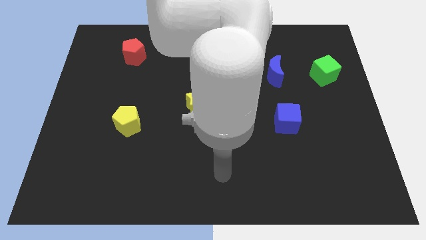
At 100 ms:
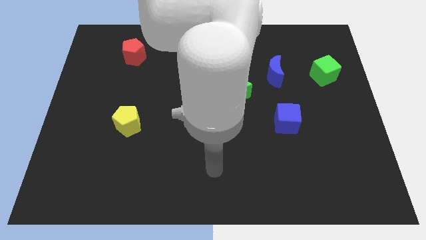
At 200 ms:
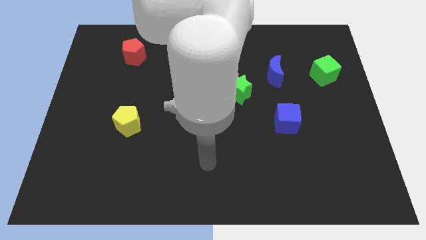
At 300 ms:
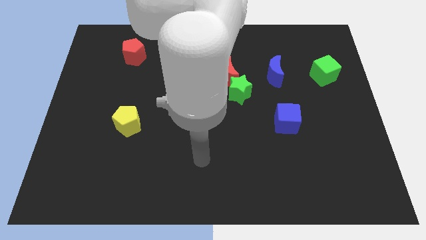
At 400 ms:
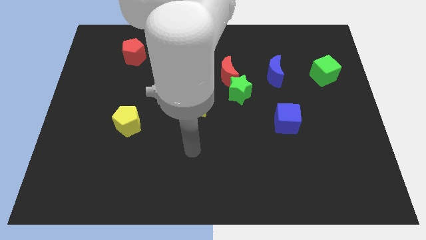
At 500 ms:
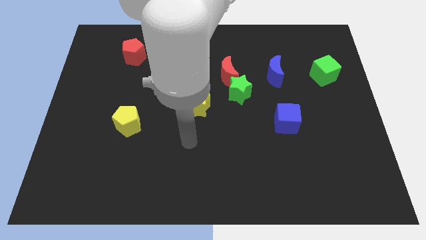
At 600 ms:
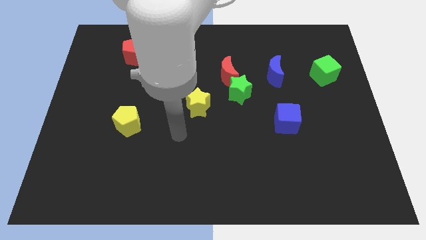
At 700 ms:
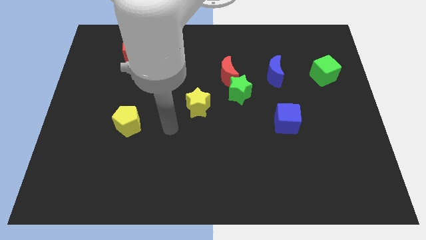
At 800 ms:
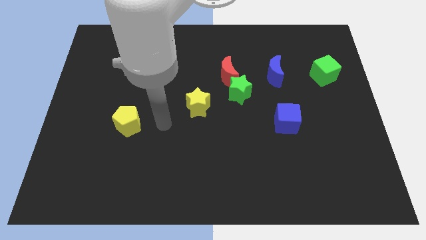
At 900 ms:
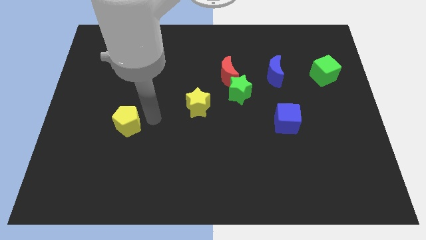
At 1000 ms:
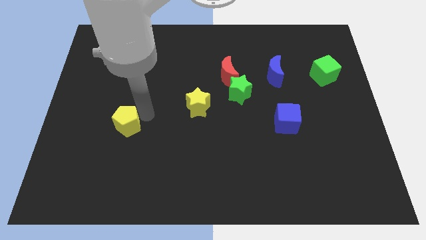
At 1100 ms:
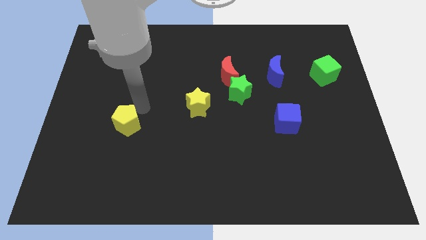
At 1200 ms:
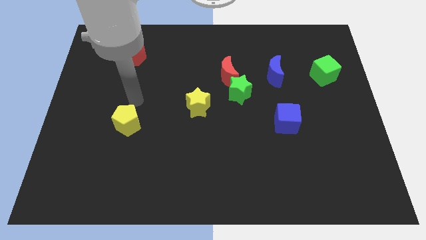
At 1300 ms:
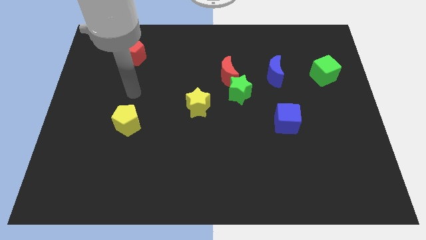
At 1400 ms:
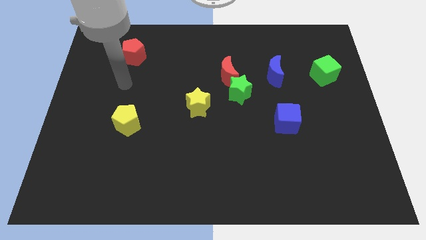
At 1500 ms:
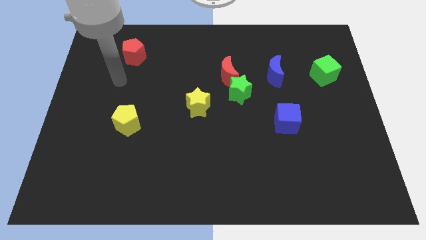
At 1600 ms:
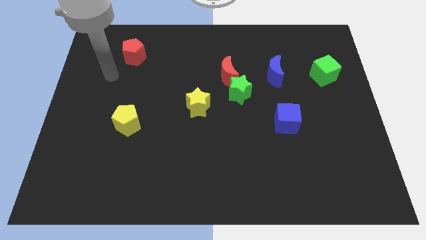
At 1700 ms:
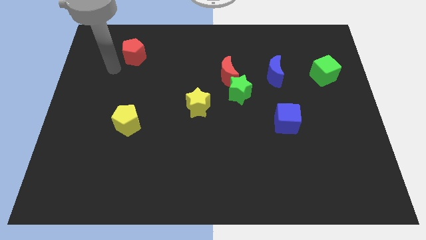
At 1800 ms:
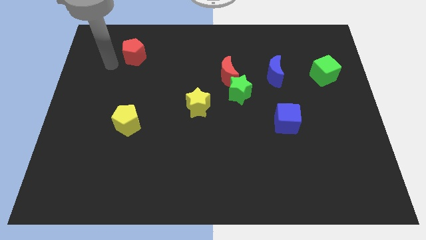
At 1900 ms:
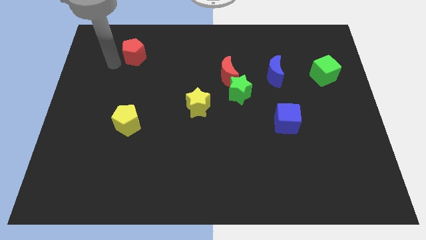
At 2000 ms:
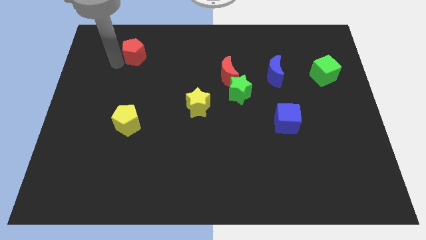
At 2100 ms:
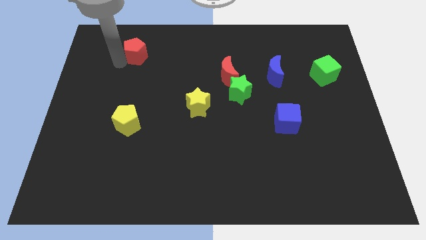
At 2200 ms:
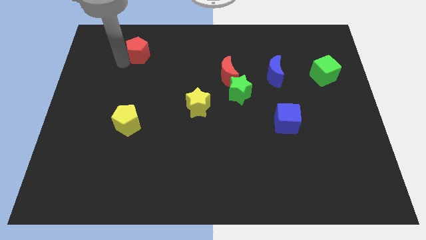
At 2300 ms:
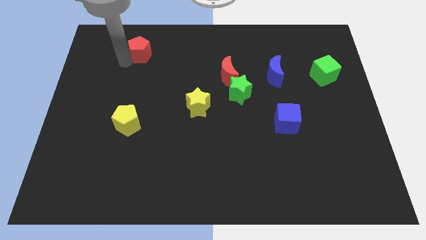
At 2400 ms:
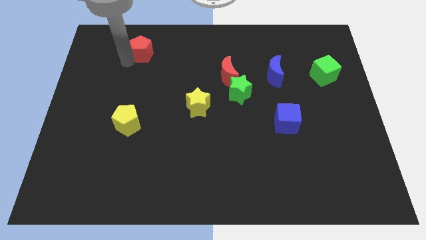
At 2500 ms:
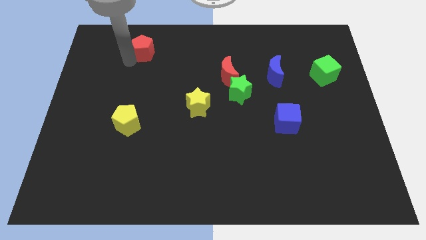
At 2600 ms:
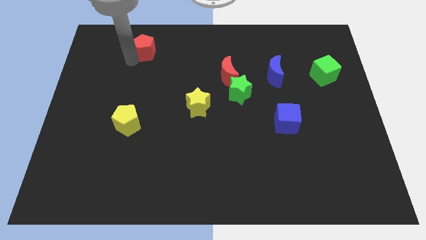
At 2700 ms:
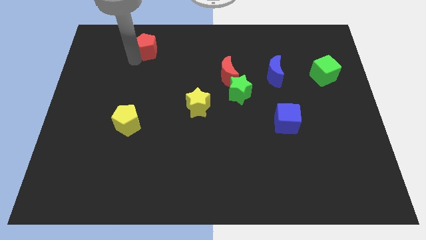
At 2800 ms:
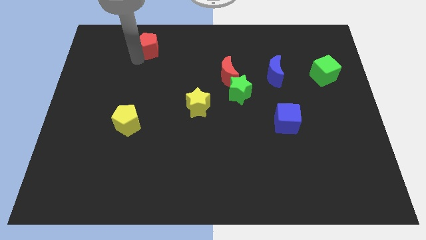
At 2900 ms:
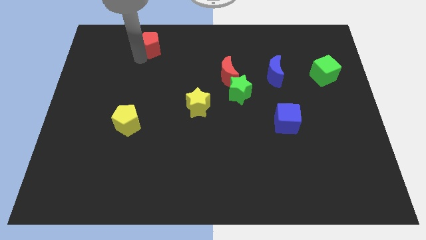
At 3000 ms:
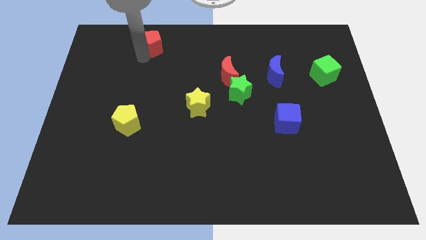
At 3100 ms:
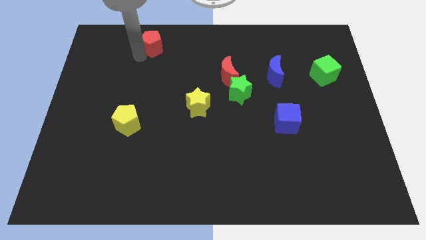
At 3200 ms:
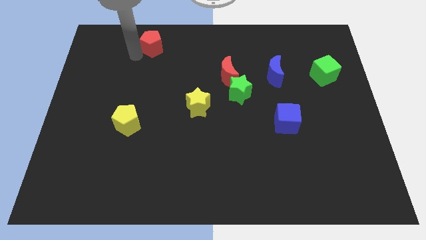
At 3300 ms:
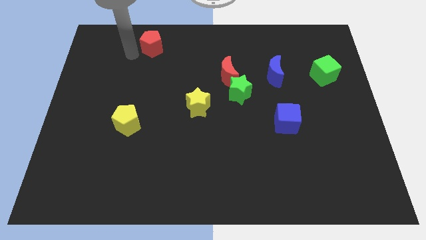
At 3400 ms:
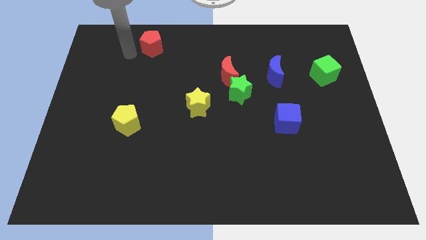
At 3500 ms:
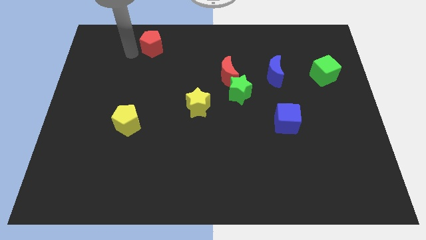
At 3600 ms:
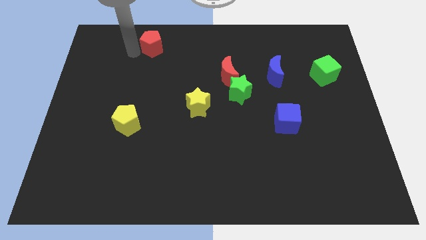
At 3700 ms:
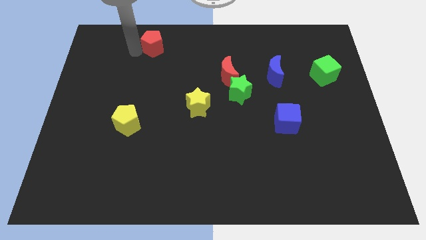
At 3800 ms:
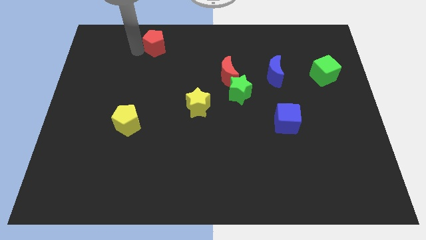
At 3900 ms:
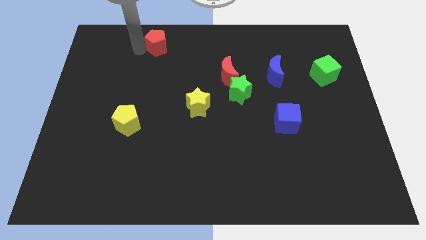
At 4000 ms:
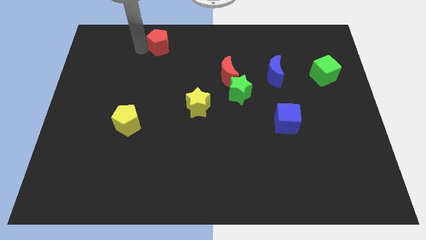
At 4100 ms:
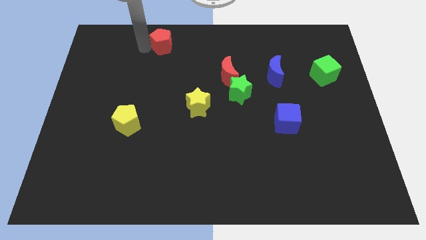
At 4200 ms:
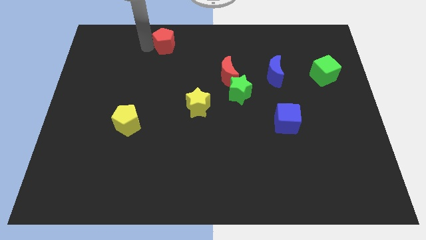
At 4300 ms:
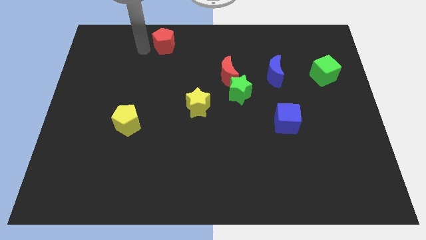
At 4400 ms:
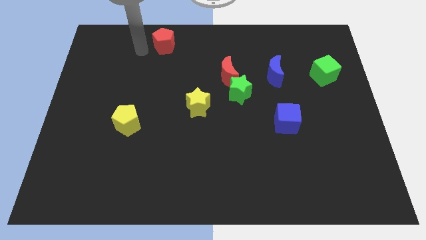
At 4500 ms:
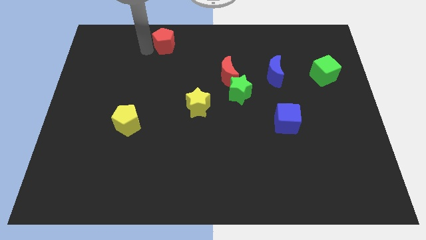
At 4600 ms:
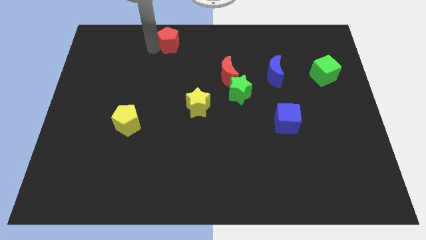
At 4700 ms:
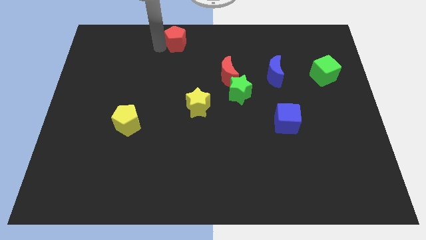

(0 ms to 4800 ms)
put the red pentagon to the top

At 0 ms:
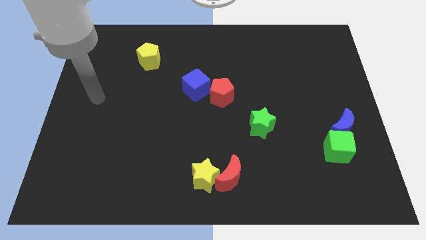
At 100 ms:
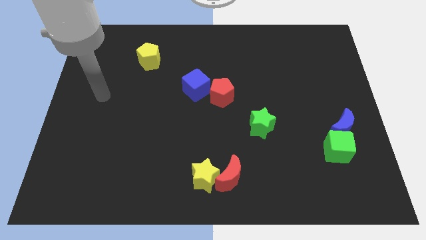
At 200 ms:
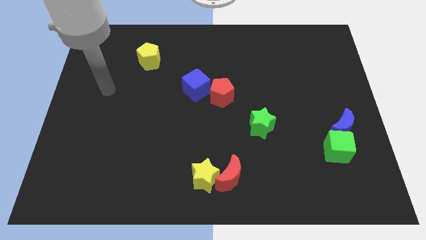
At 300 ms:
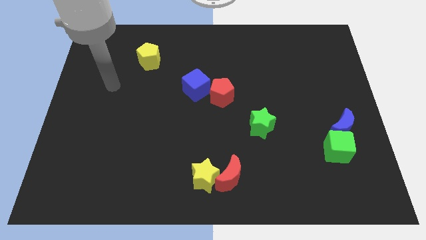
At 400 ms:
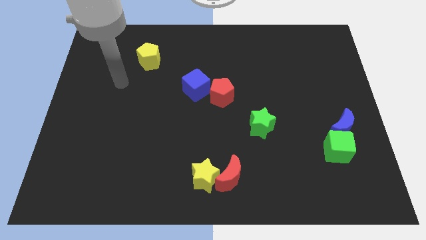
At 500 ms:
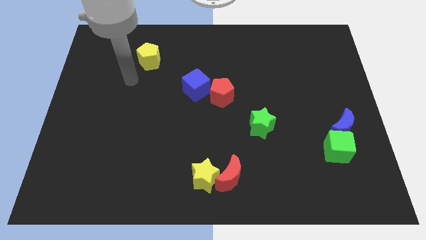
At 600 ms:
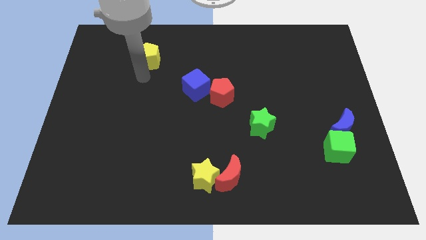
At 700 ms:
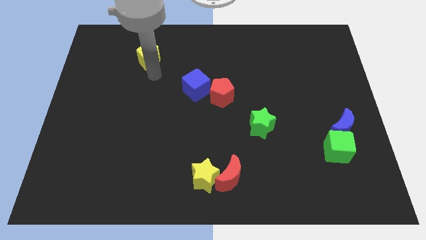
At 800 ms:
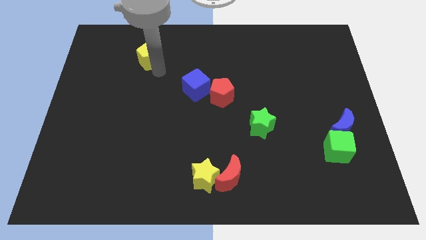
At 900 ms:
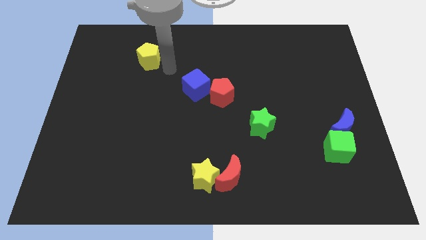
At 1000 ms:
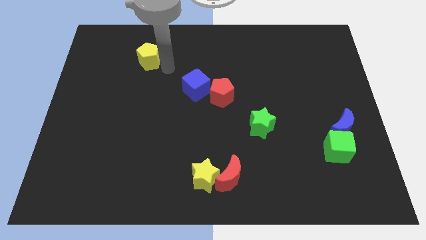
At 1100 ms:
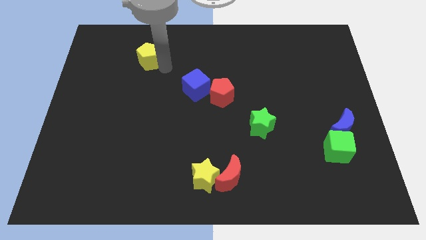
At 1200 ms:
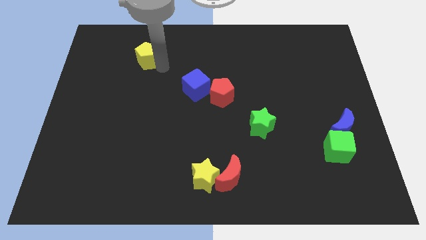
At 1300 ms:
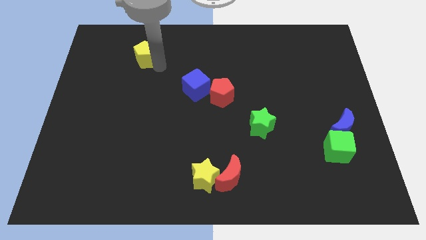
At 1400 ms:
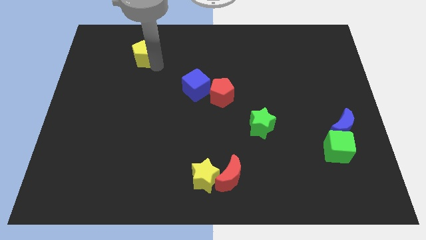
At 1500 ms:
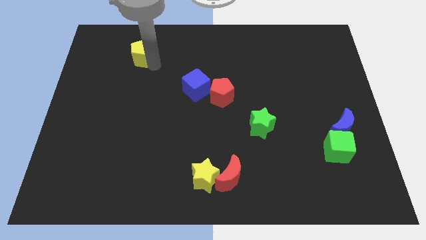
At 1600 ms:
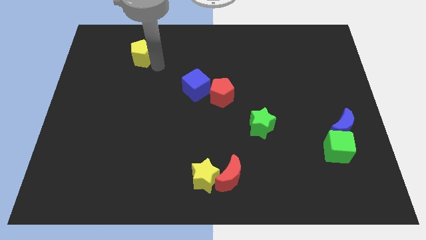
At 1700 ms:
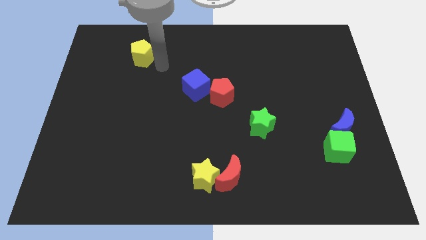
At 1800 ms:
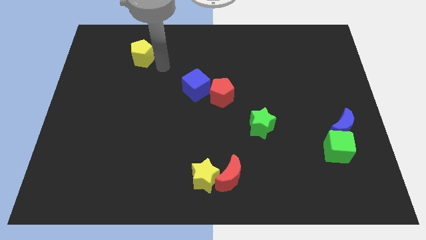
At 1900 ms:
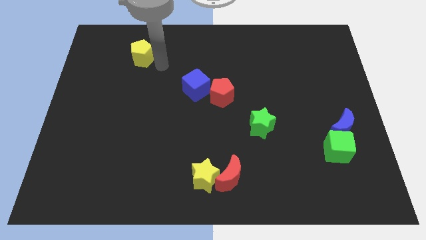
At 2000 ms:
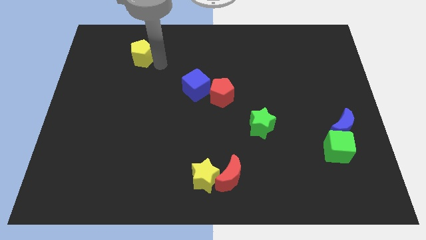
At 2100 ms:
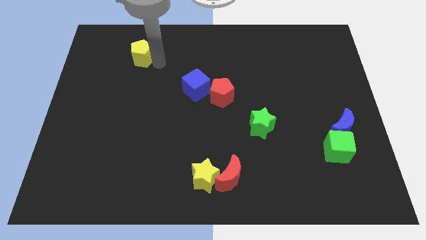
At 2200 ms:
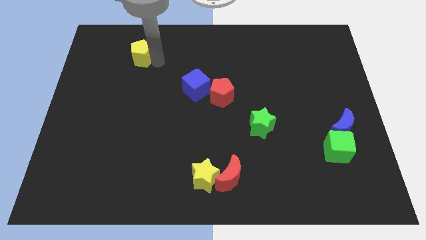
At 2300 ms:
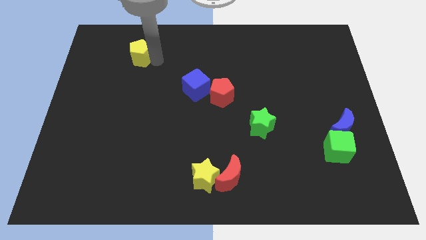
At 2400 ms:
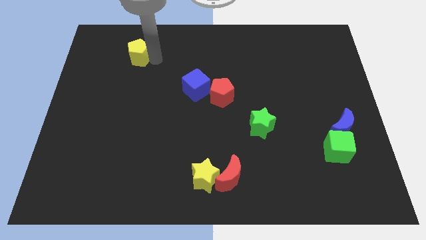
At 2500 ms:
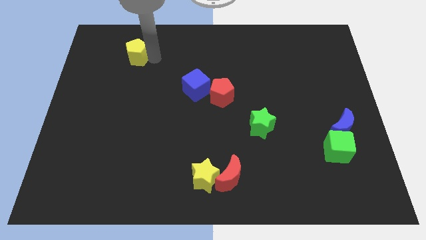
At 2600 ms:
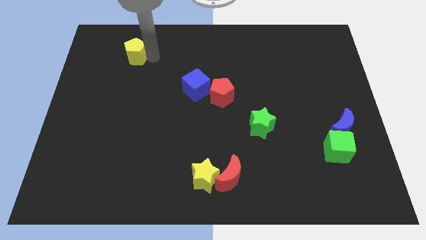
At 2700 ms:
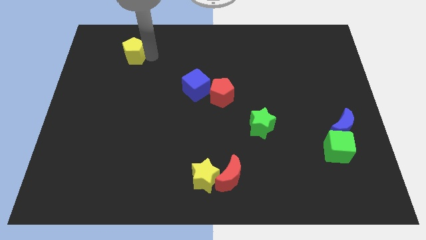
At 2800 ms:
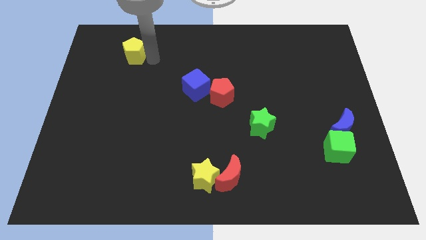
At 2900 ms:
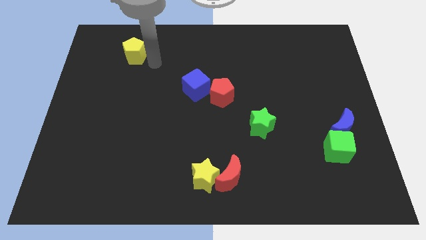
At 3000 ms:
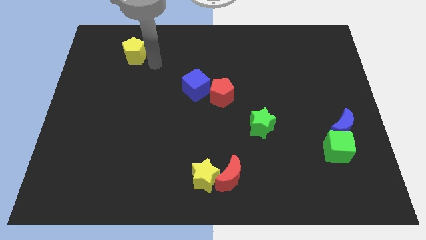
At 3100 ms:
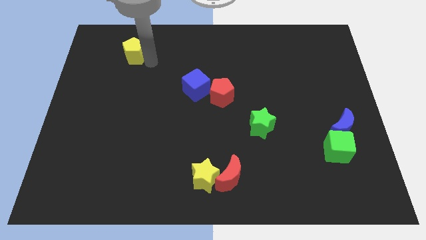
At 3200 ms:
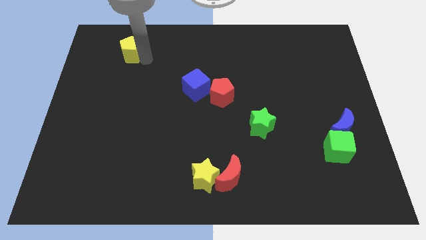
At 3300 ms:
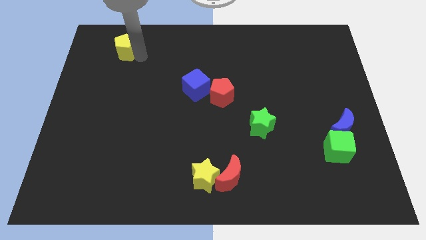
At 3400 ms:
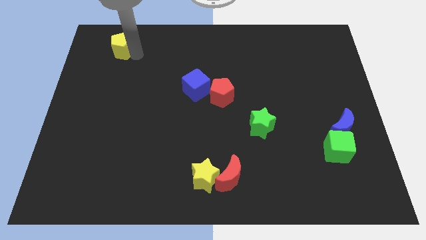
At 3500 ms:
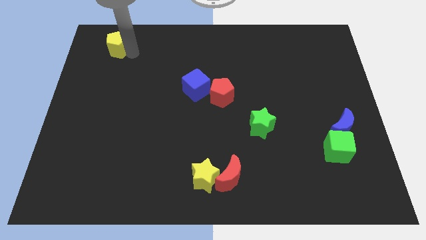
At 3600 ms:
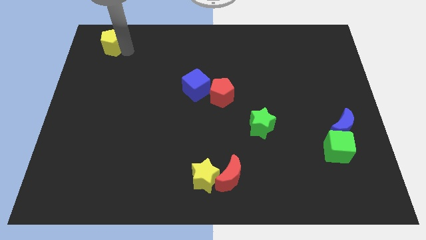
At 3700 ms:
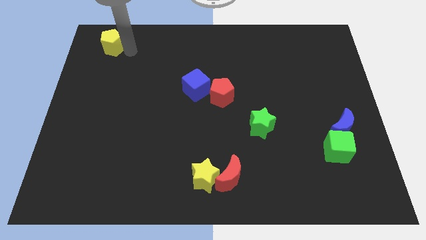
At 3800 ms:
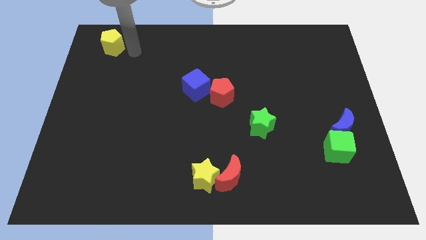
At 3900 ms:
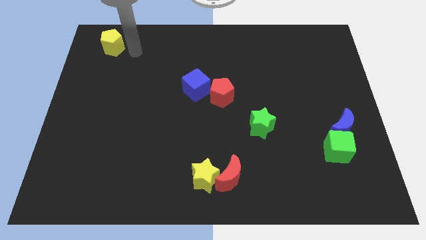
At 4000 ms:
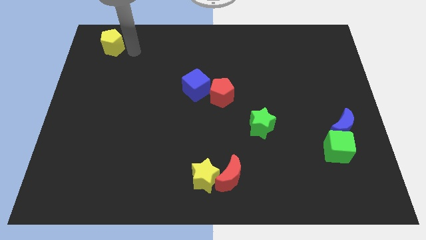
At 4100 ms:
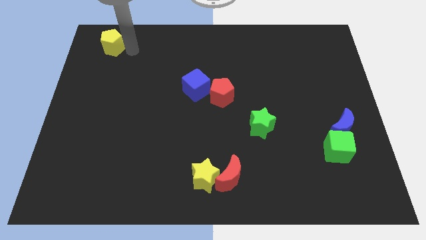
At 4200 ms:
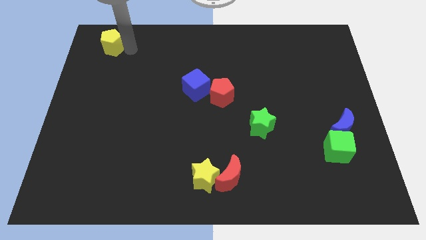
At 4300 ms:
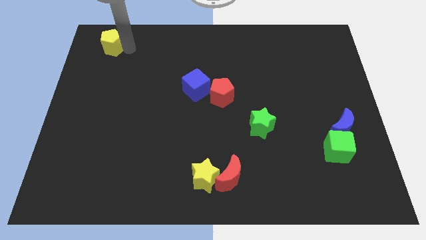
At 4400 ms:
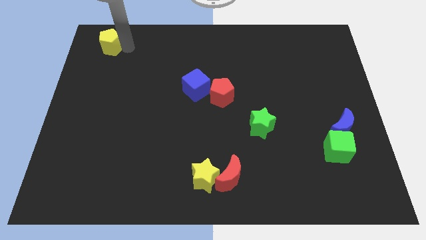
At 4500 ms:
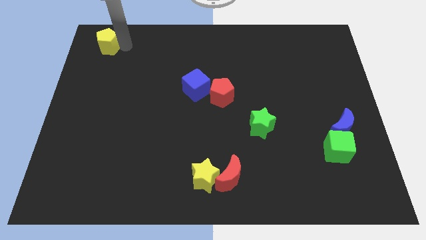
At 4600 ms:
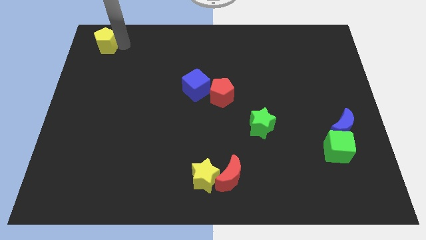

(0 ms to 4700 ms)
move the yellow pentagon to the top left
